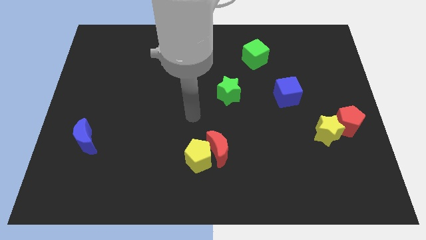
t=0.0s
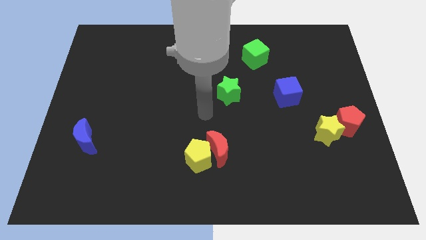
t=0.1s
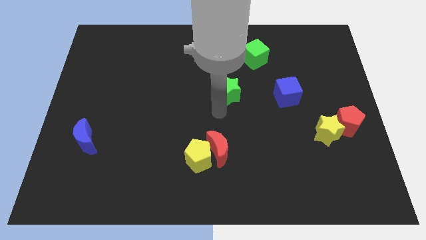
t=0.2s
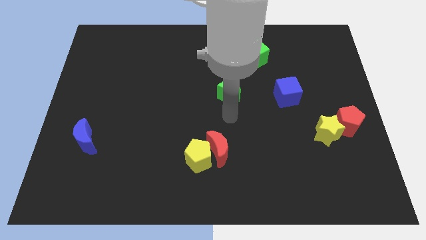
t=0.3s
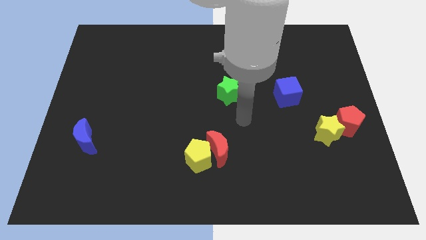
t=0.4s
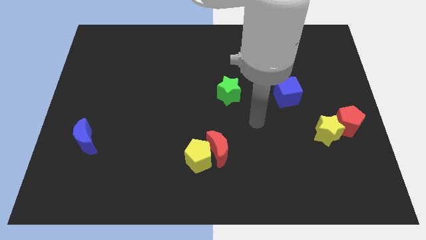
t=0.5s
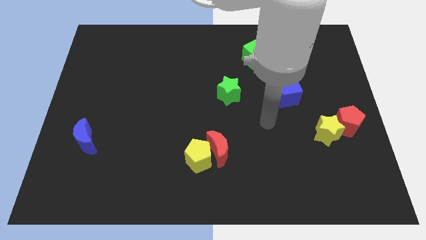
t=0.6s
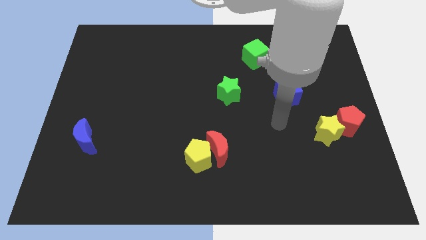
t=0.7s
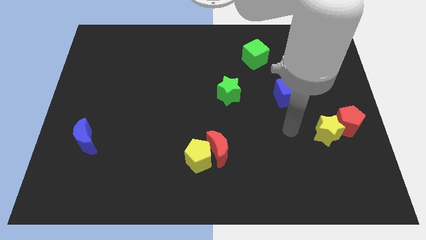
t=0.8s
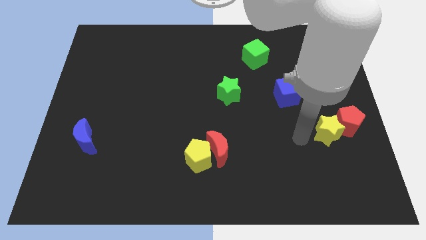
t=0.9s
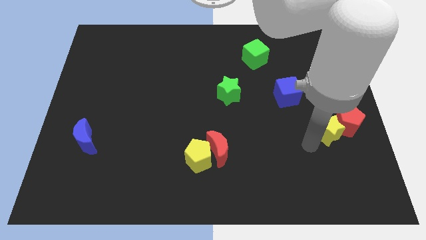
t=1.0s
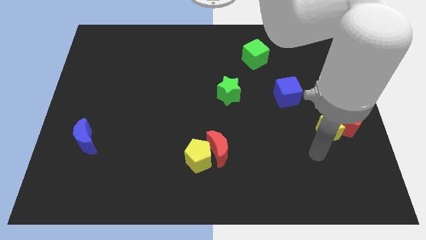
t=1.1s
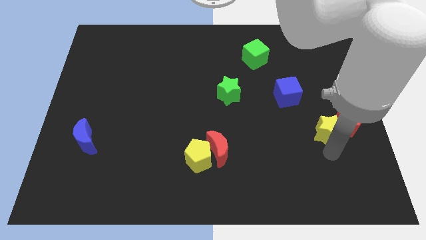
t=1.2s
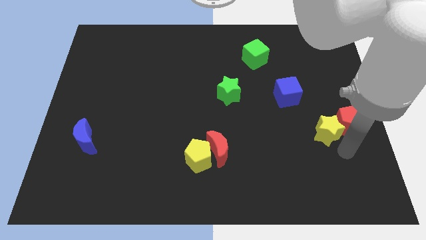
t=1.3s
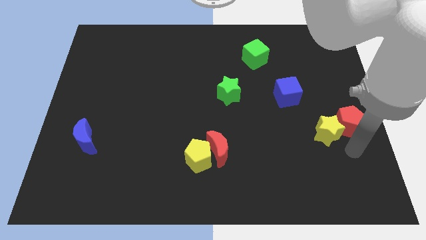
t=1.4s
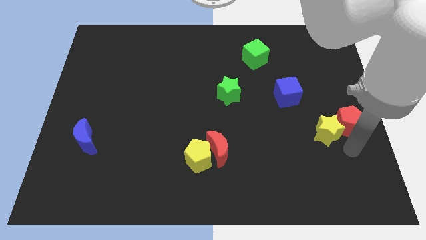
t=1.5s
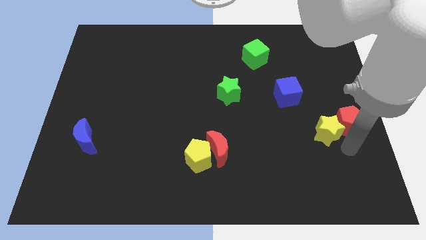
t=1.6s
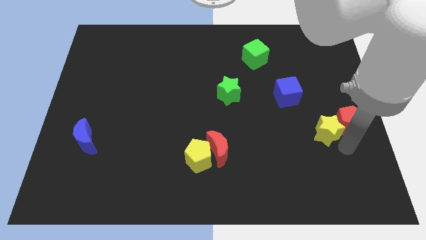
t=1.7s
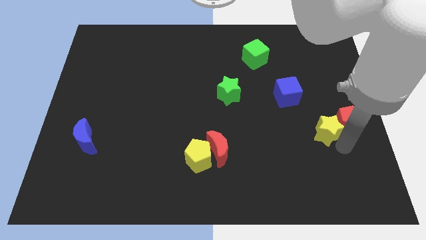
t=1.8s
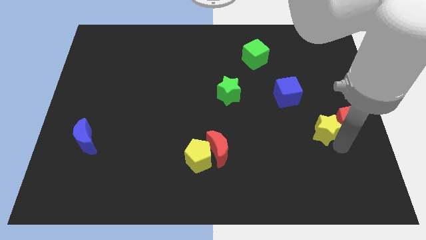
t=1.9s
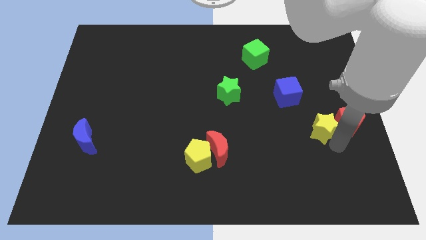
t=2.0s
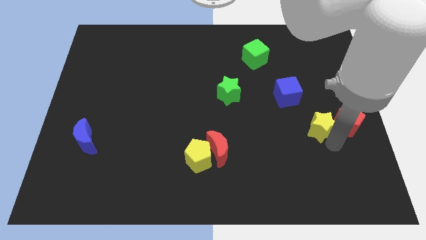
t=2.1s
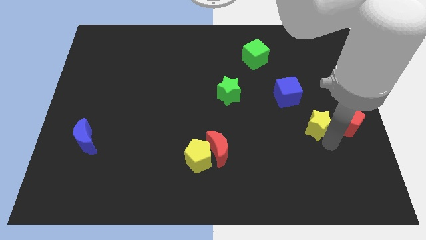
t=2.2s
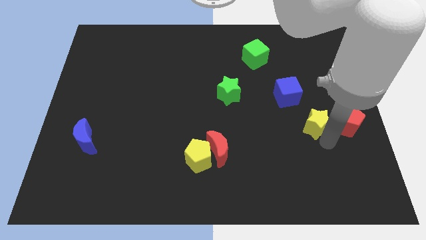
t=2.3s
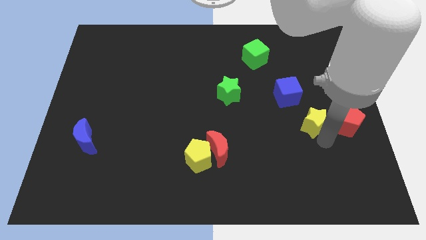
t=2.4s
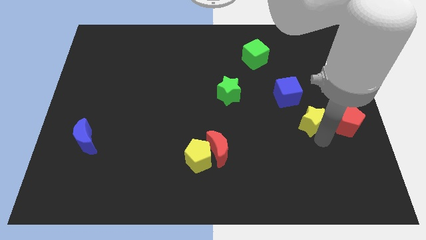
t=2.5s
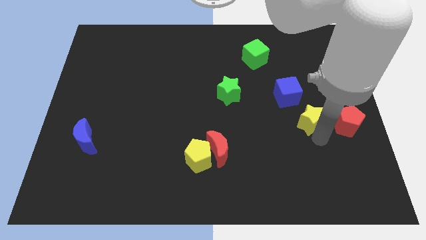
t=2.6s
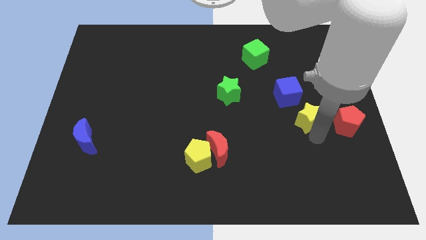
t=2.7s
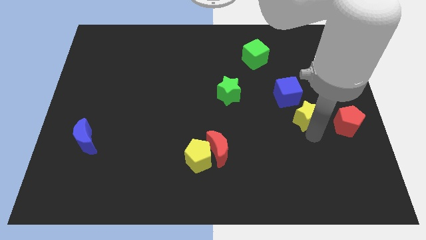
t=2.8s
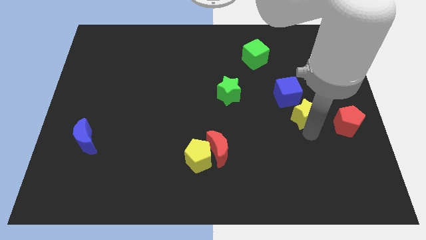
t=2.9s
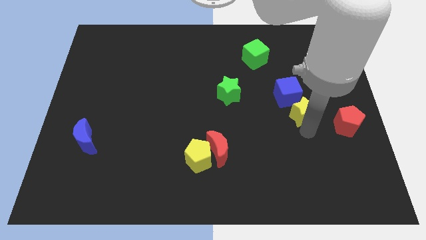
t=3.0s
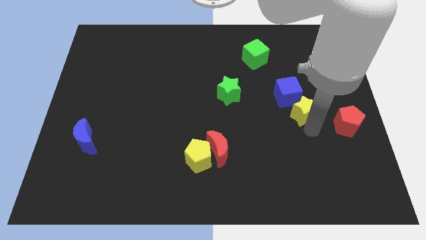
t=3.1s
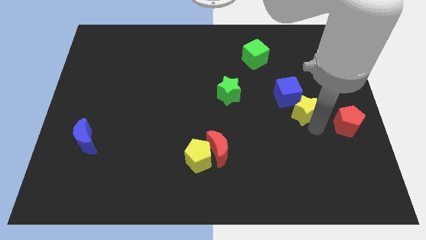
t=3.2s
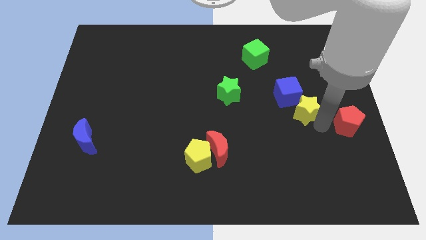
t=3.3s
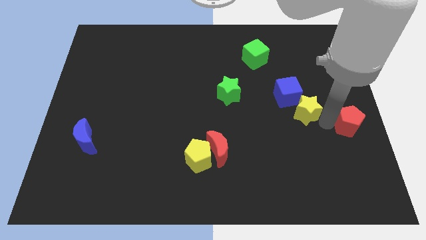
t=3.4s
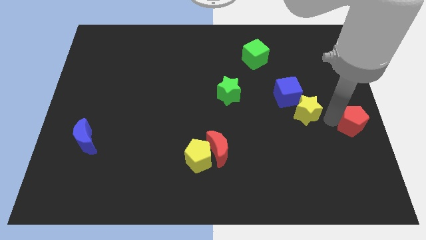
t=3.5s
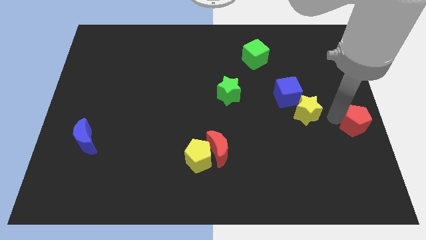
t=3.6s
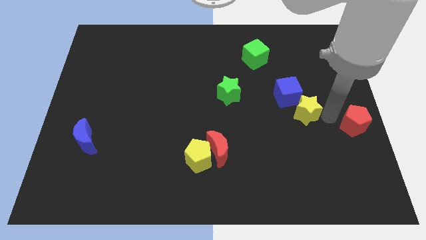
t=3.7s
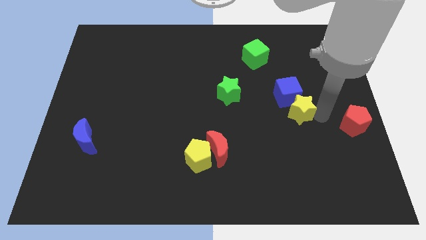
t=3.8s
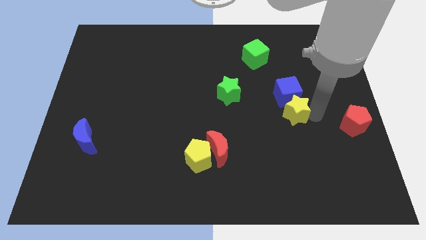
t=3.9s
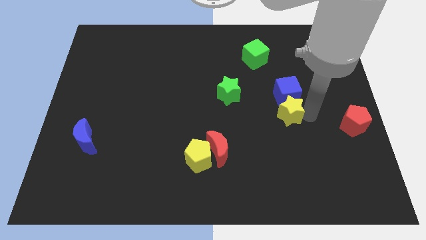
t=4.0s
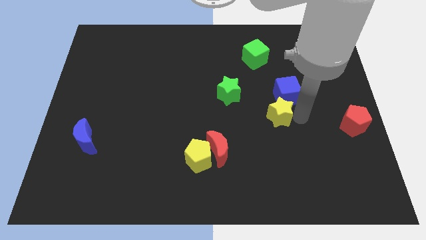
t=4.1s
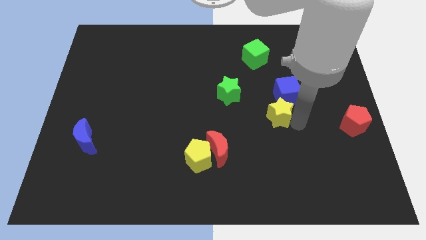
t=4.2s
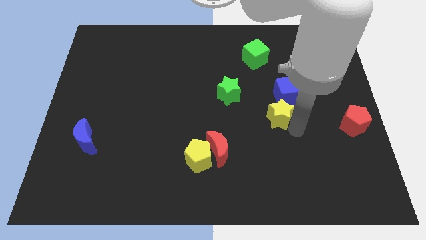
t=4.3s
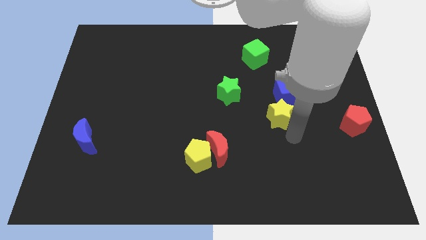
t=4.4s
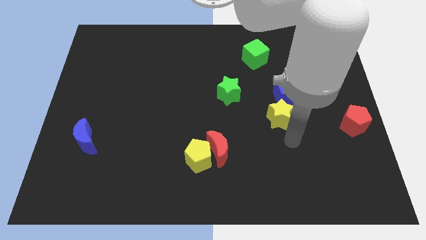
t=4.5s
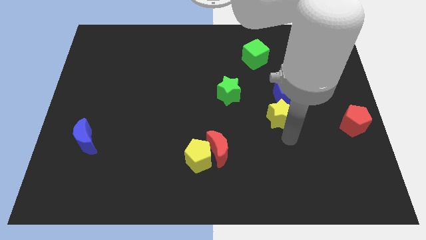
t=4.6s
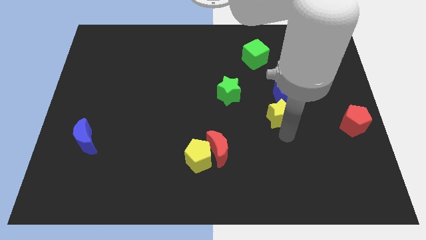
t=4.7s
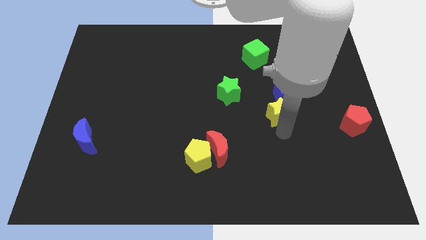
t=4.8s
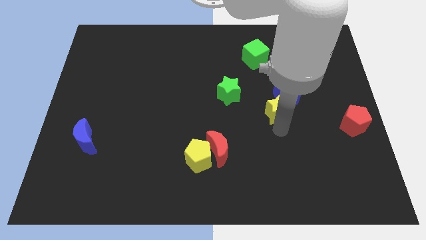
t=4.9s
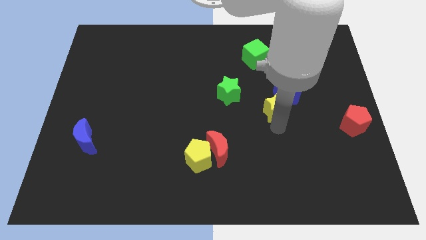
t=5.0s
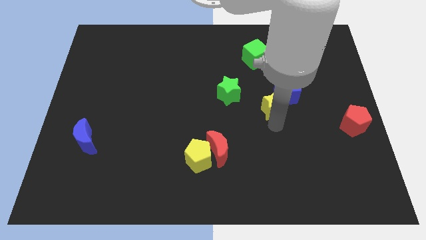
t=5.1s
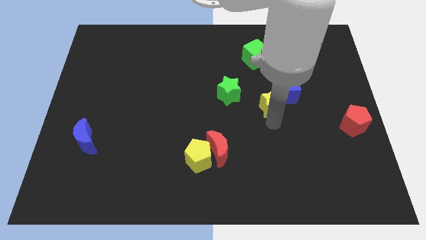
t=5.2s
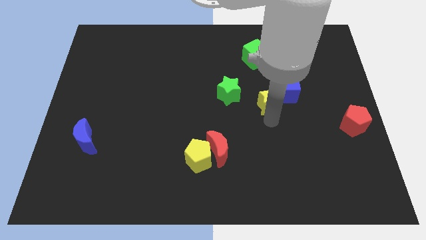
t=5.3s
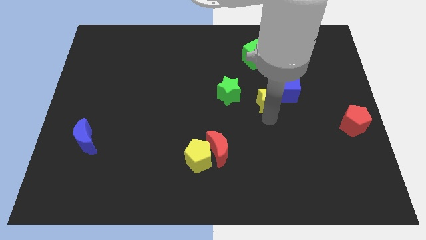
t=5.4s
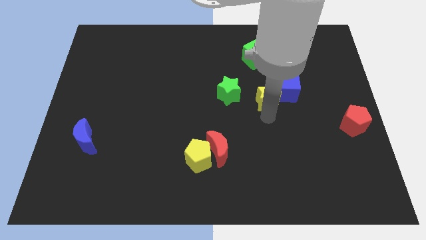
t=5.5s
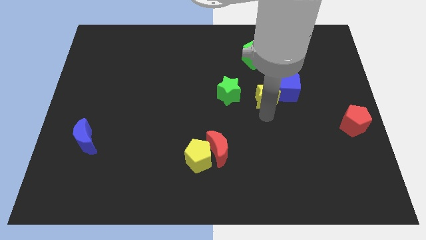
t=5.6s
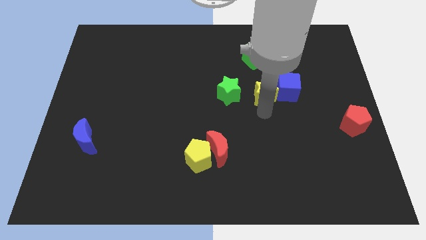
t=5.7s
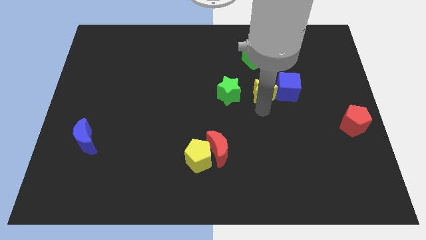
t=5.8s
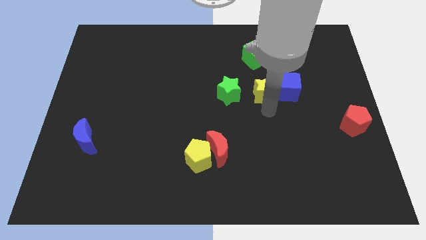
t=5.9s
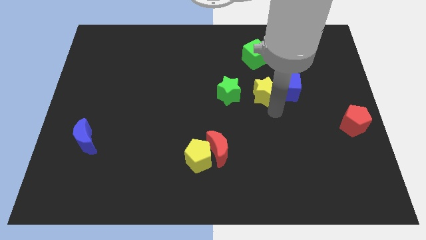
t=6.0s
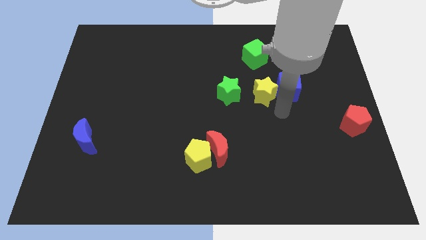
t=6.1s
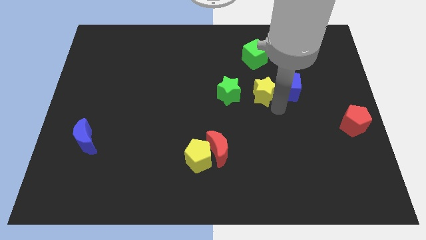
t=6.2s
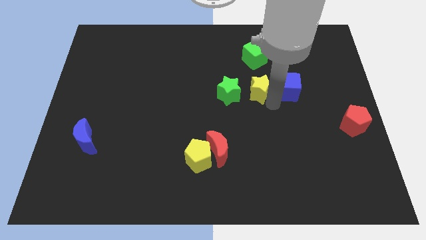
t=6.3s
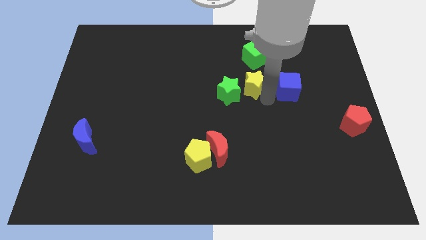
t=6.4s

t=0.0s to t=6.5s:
push the yellow star up and left

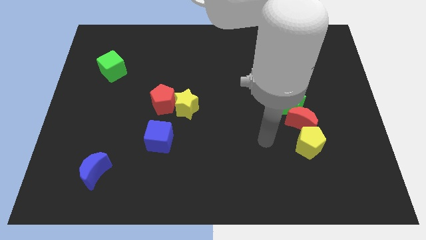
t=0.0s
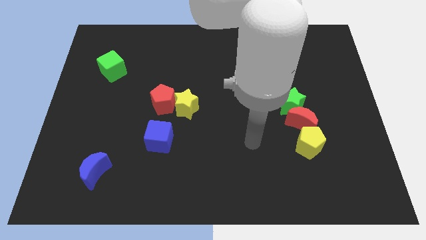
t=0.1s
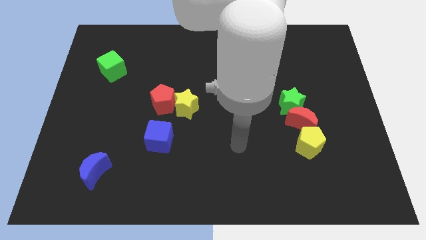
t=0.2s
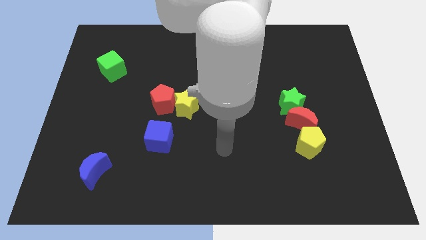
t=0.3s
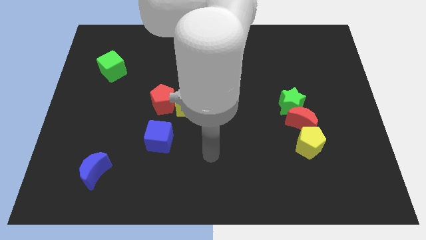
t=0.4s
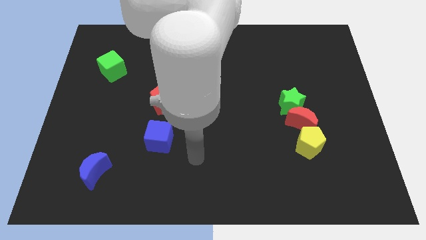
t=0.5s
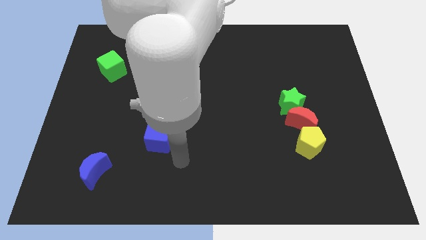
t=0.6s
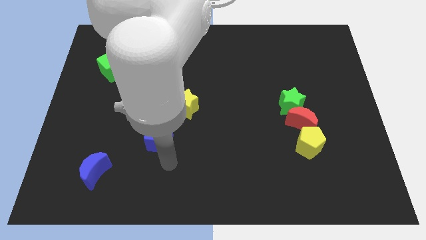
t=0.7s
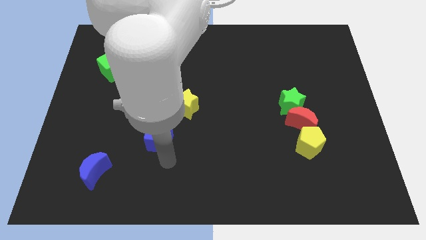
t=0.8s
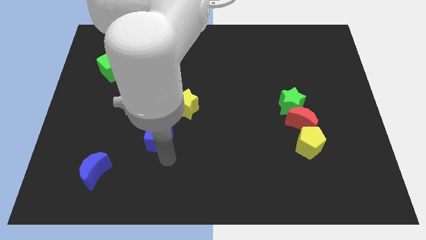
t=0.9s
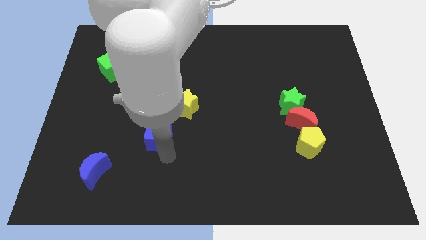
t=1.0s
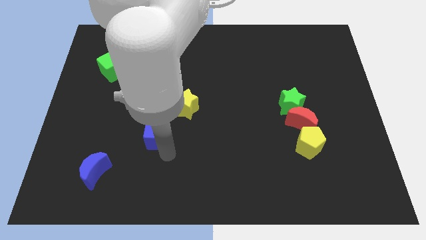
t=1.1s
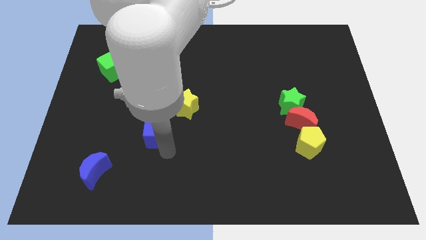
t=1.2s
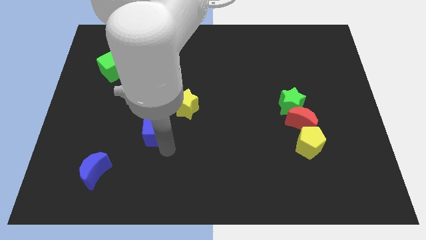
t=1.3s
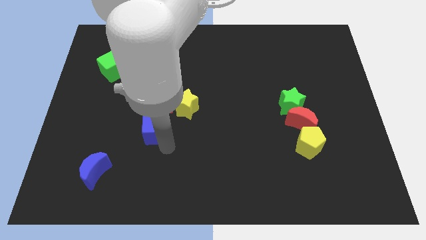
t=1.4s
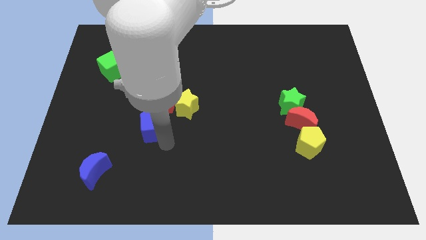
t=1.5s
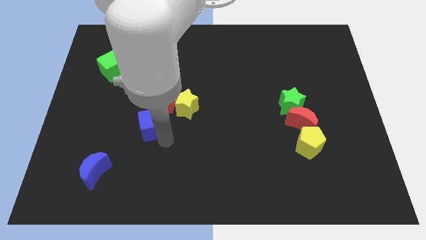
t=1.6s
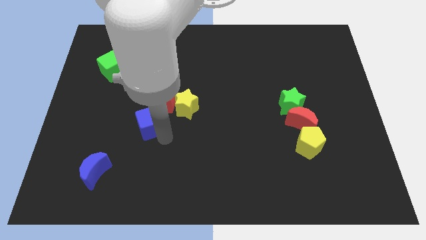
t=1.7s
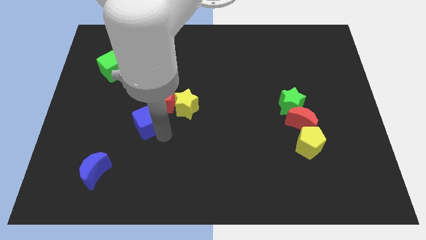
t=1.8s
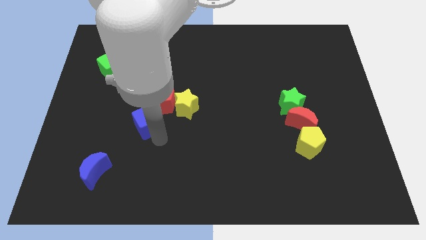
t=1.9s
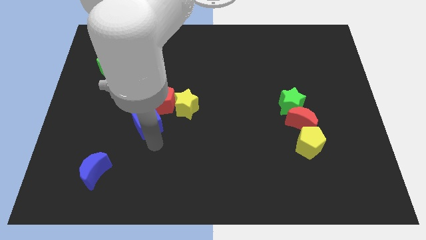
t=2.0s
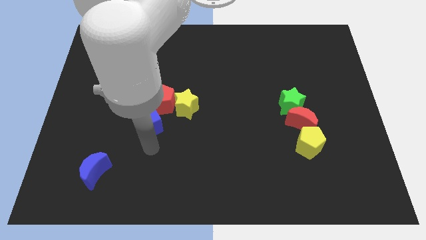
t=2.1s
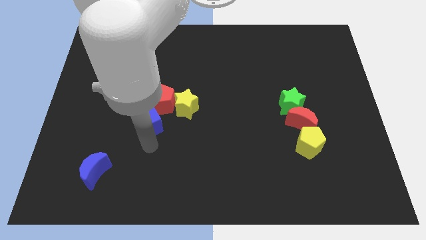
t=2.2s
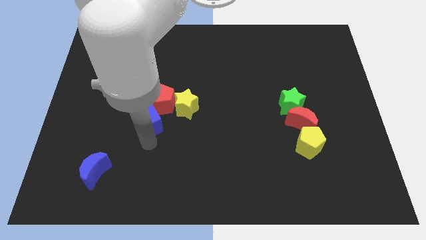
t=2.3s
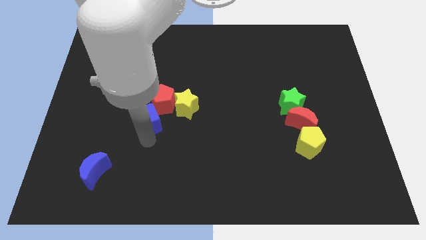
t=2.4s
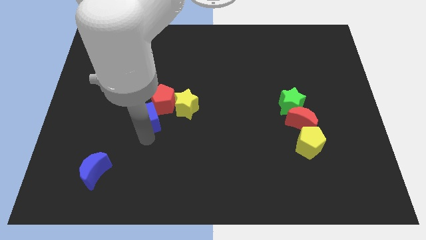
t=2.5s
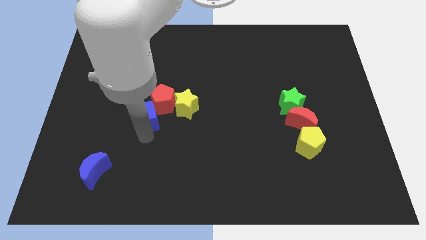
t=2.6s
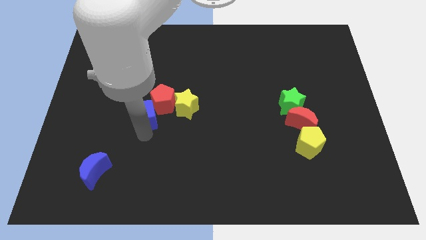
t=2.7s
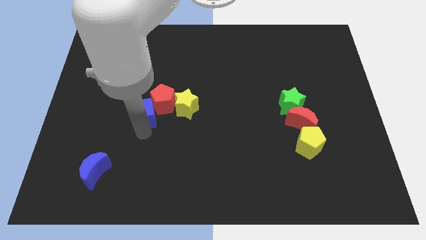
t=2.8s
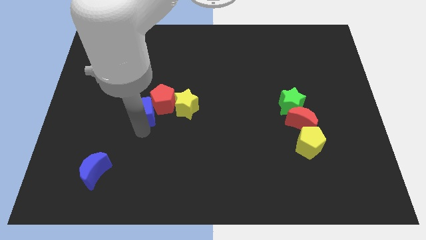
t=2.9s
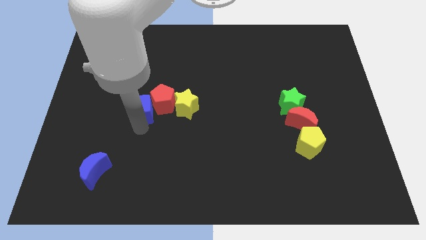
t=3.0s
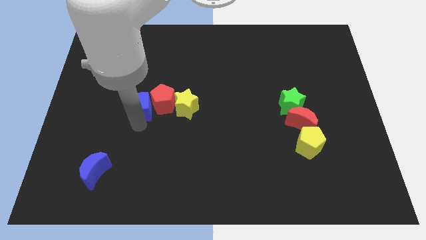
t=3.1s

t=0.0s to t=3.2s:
slide the blue cube a little bit up
